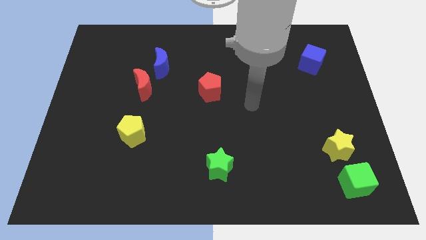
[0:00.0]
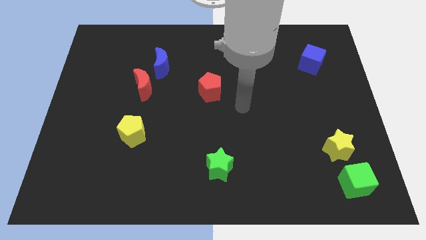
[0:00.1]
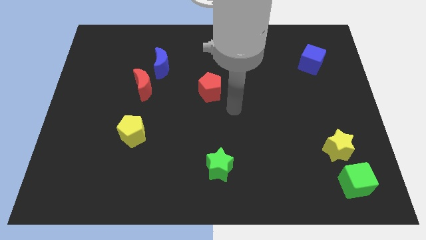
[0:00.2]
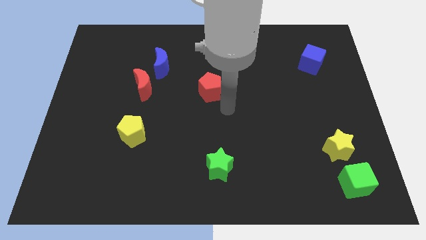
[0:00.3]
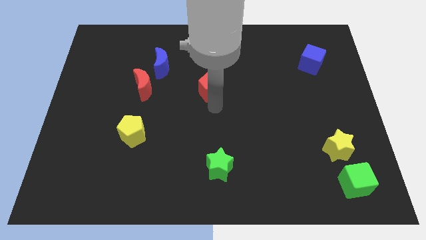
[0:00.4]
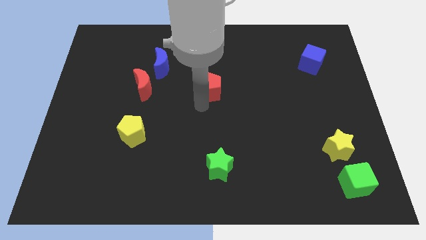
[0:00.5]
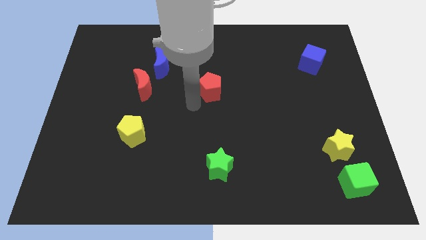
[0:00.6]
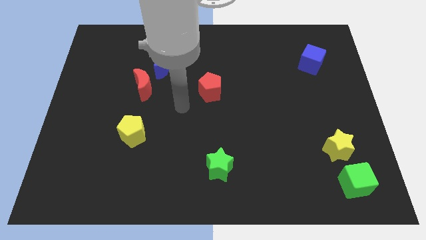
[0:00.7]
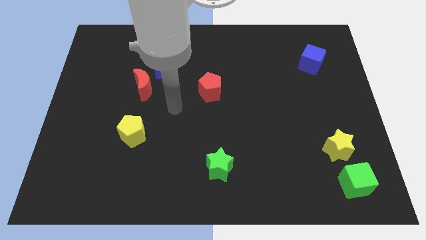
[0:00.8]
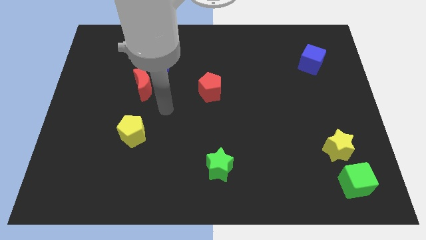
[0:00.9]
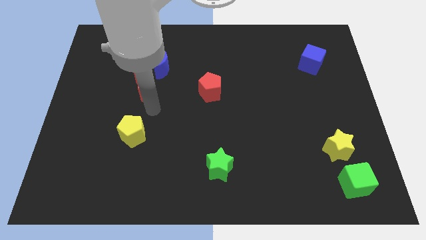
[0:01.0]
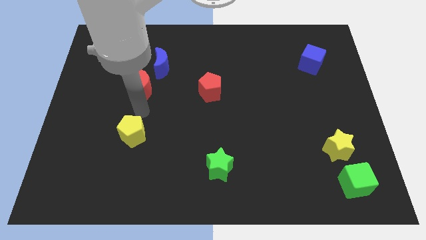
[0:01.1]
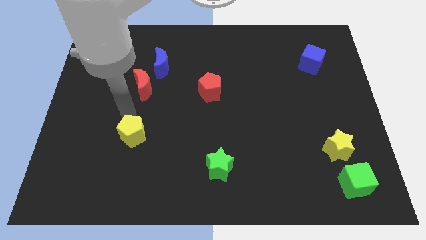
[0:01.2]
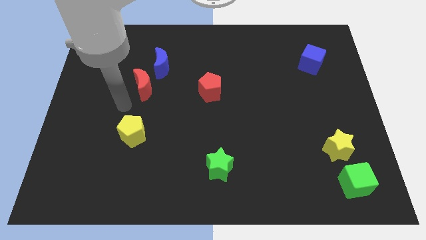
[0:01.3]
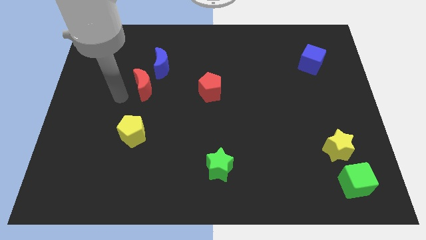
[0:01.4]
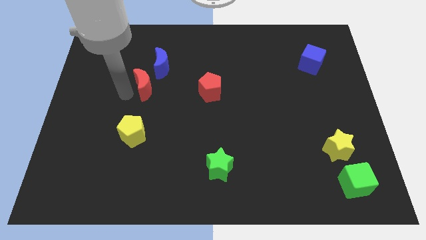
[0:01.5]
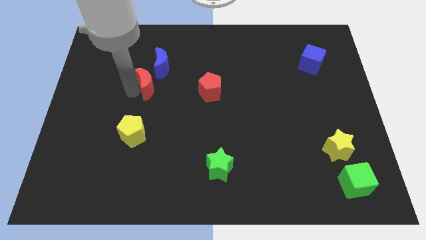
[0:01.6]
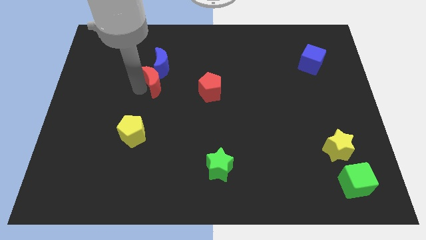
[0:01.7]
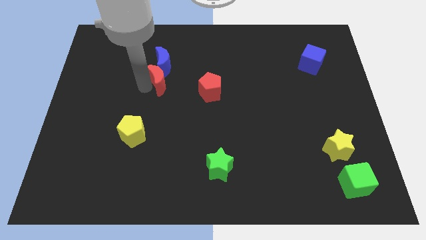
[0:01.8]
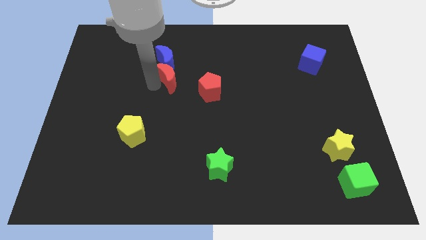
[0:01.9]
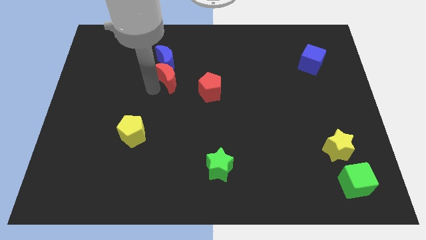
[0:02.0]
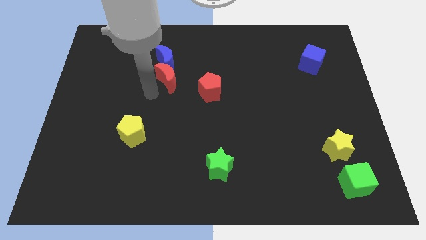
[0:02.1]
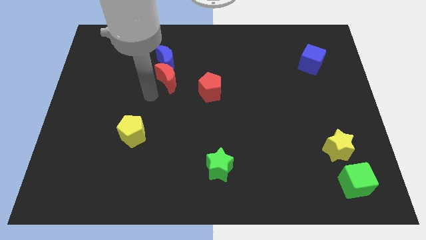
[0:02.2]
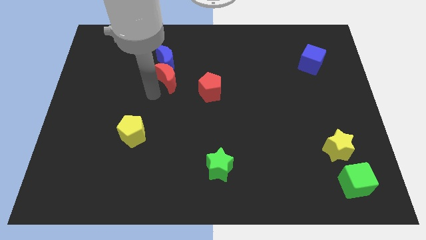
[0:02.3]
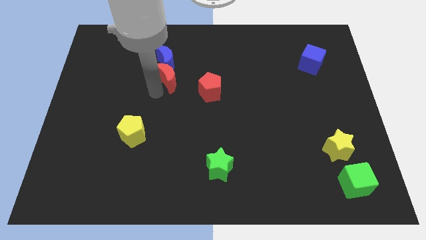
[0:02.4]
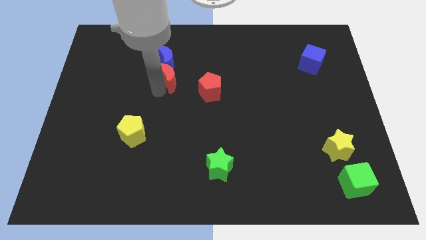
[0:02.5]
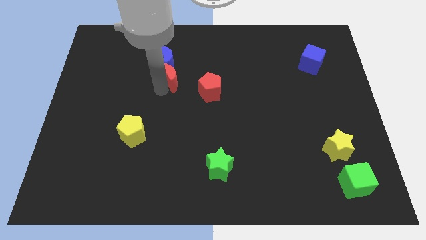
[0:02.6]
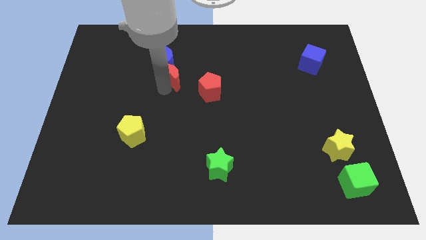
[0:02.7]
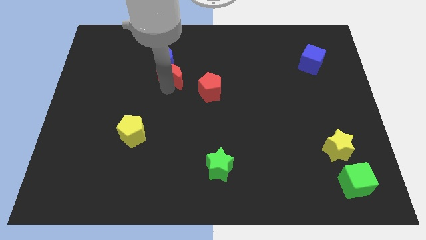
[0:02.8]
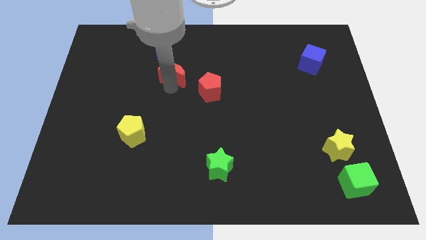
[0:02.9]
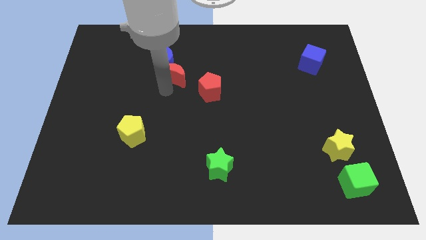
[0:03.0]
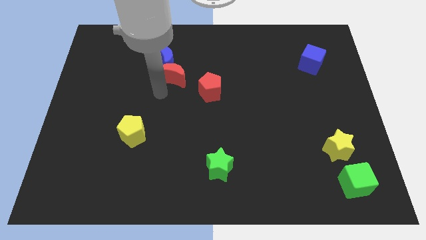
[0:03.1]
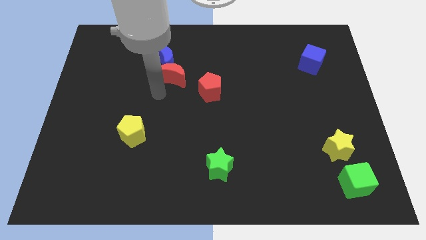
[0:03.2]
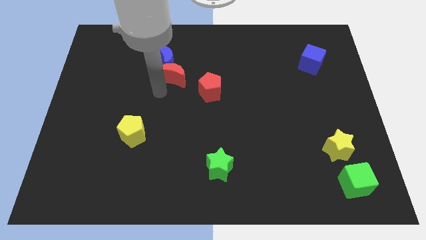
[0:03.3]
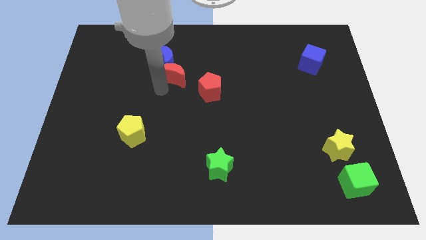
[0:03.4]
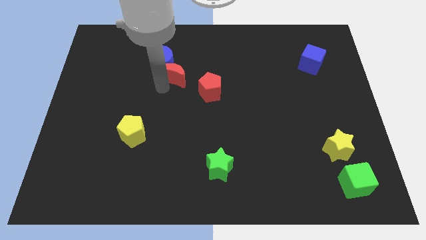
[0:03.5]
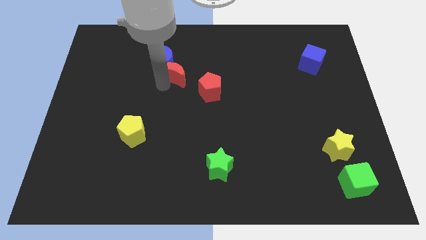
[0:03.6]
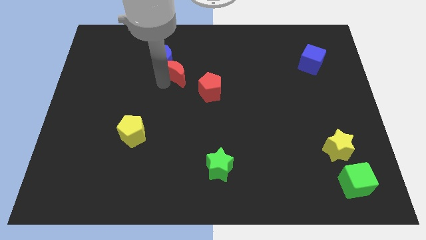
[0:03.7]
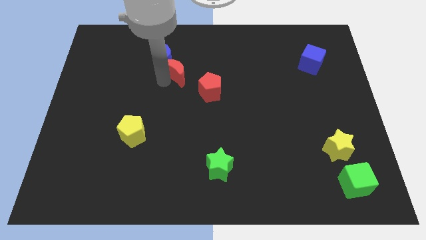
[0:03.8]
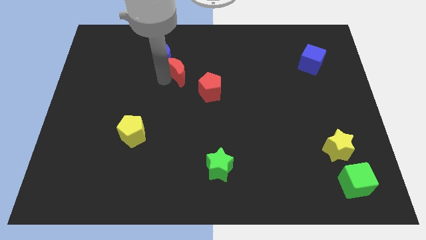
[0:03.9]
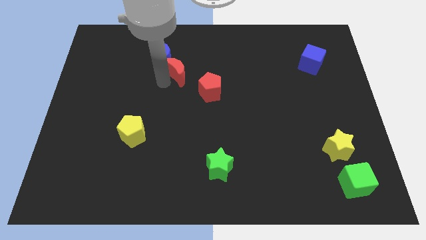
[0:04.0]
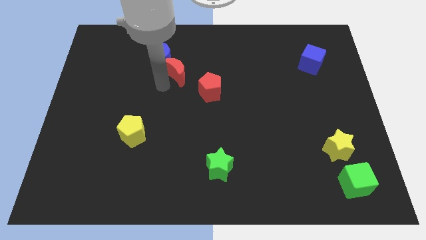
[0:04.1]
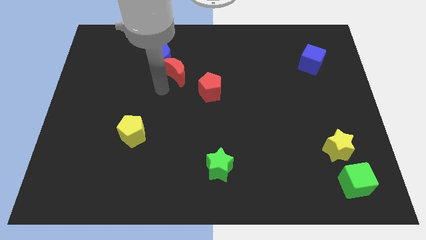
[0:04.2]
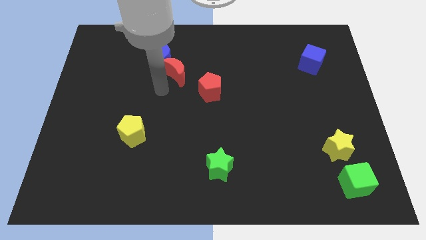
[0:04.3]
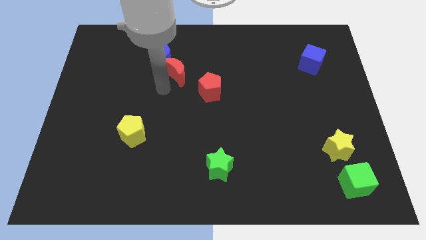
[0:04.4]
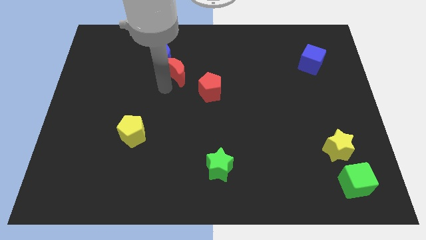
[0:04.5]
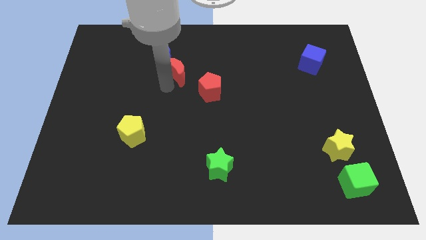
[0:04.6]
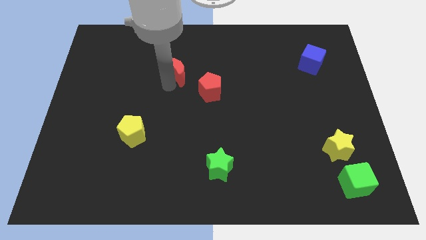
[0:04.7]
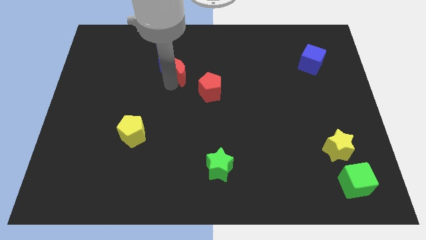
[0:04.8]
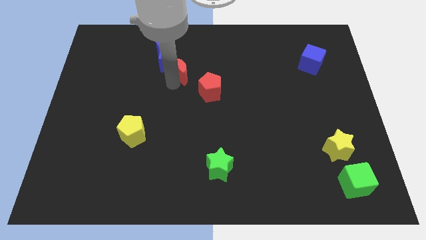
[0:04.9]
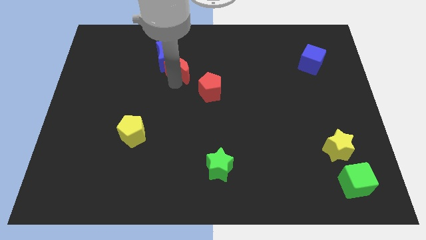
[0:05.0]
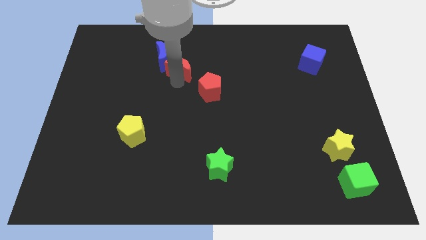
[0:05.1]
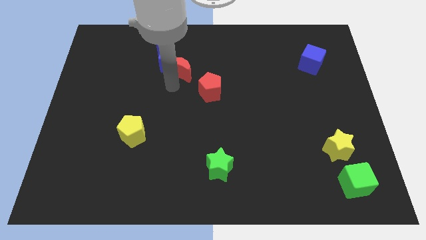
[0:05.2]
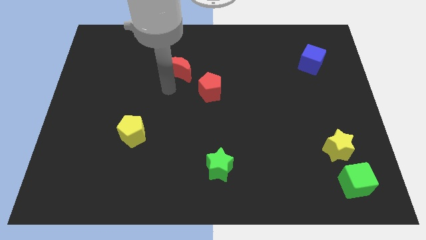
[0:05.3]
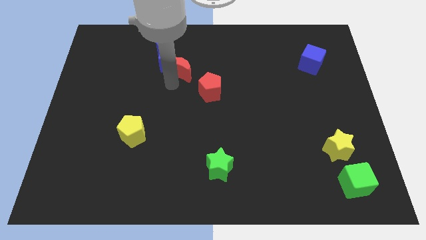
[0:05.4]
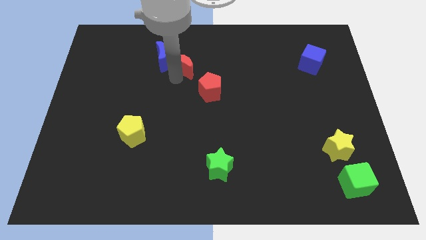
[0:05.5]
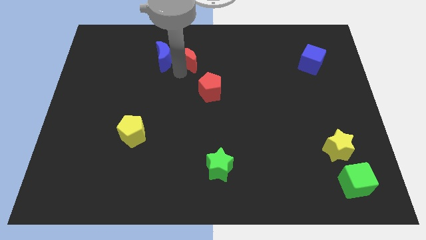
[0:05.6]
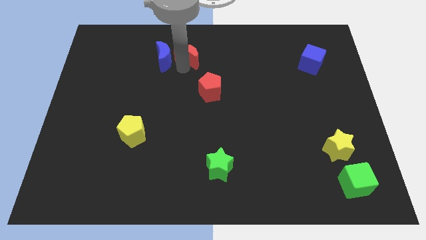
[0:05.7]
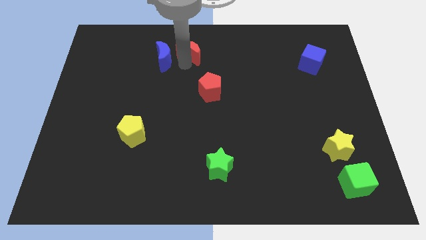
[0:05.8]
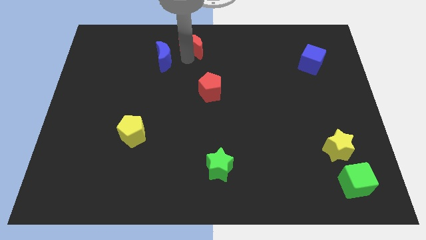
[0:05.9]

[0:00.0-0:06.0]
push the red moon to the top side

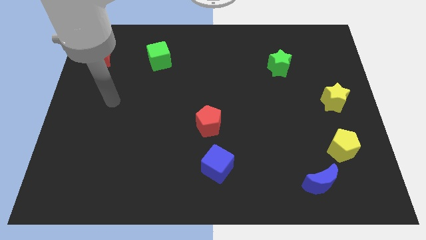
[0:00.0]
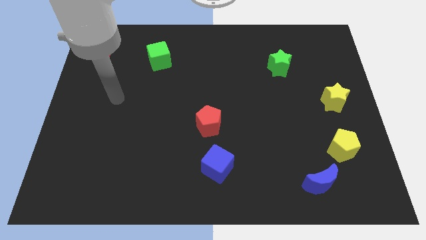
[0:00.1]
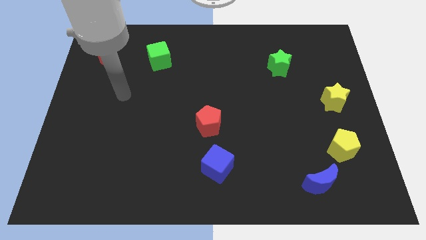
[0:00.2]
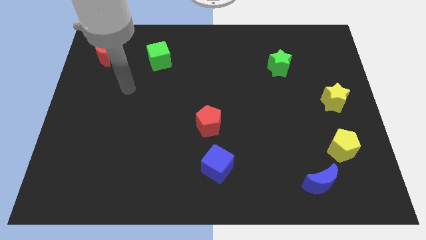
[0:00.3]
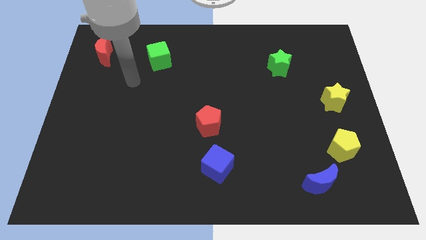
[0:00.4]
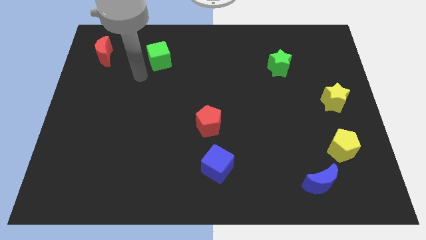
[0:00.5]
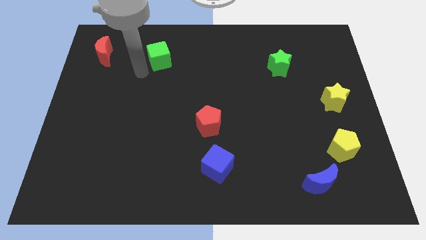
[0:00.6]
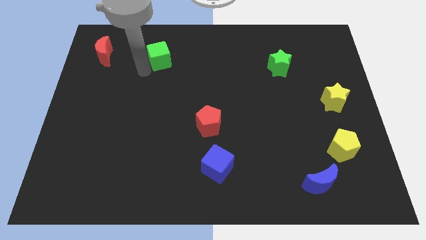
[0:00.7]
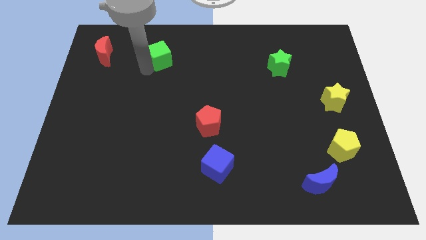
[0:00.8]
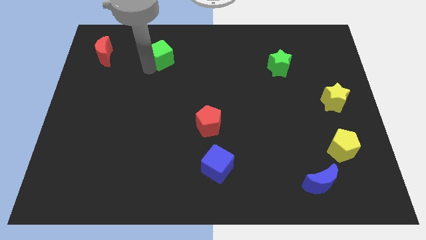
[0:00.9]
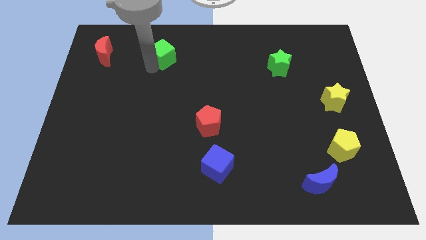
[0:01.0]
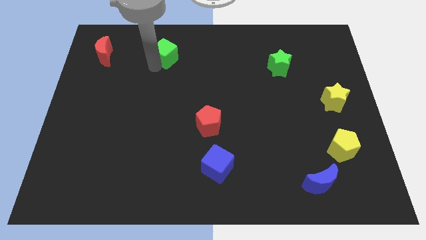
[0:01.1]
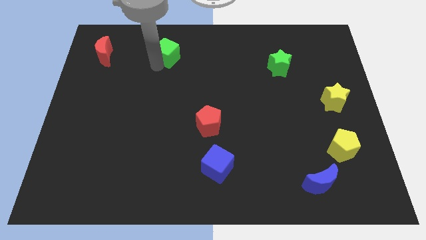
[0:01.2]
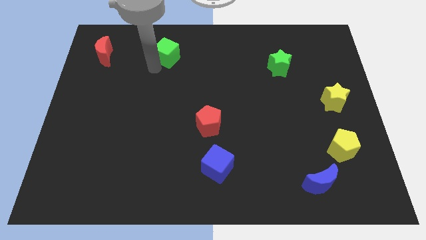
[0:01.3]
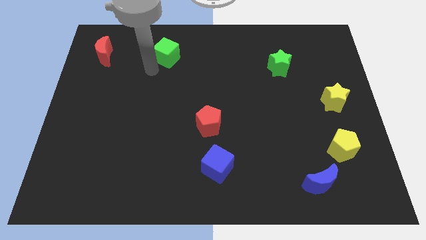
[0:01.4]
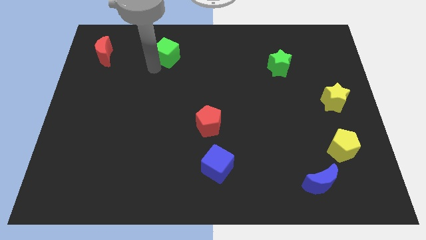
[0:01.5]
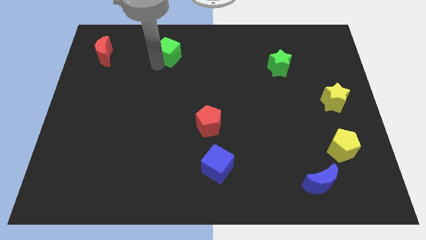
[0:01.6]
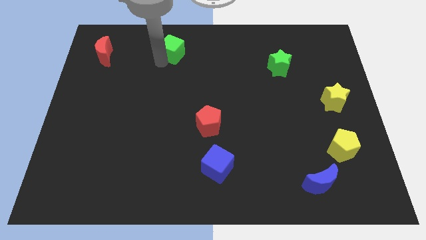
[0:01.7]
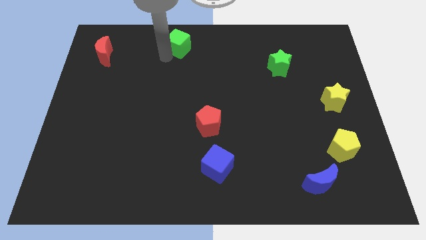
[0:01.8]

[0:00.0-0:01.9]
slide the green cube to the towards your base

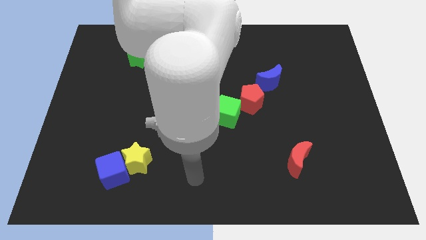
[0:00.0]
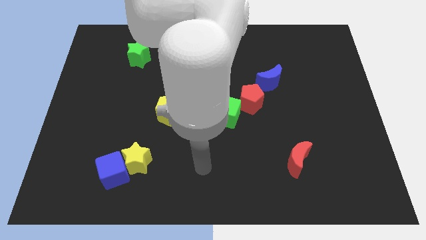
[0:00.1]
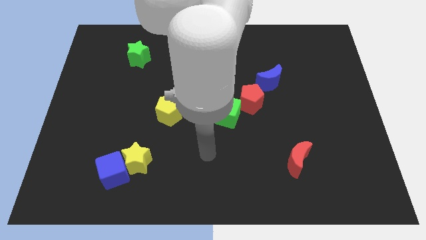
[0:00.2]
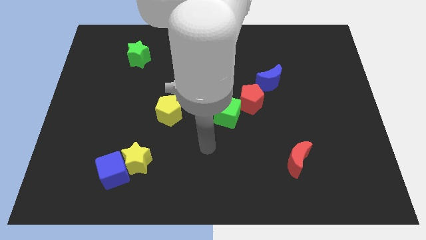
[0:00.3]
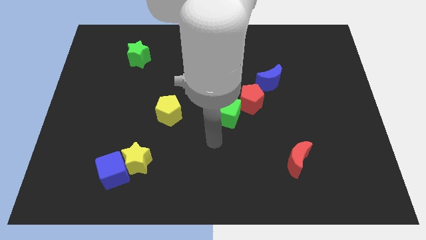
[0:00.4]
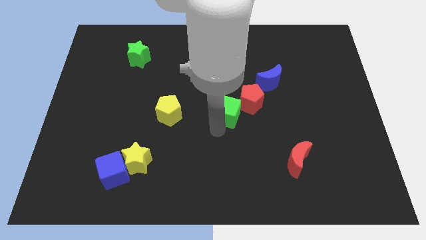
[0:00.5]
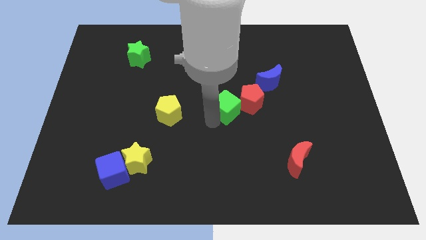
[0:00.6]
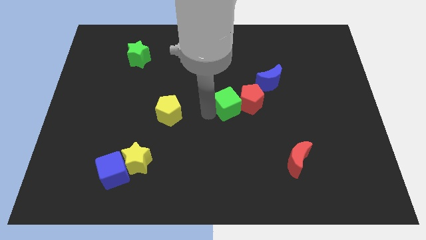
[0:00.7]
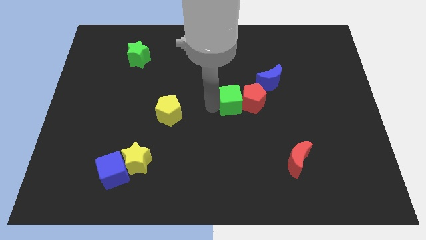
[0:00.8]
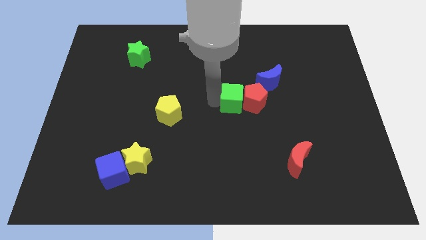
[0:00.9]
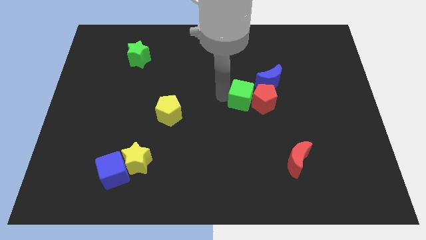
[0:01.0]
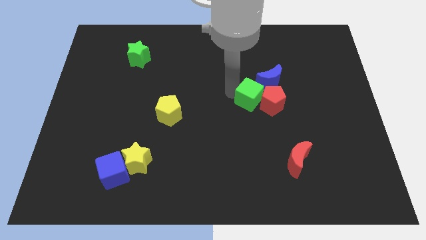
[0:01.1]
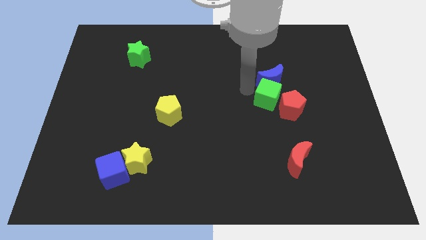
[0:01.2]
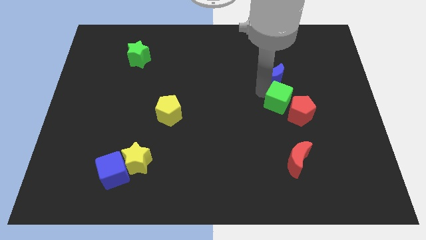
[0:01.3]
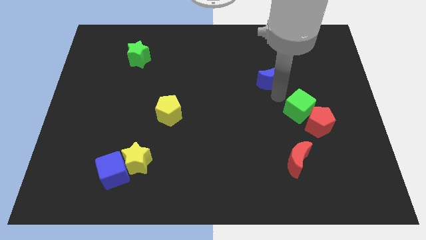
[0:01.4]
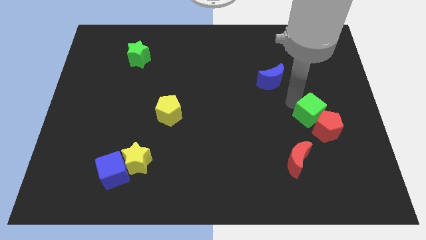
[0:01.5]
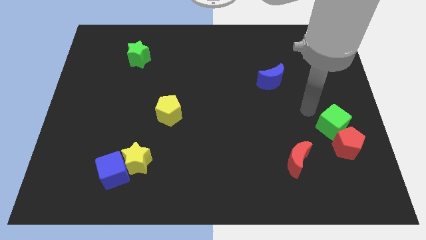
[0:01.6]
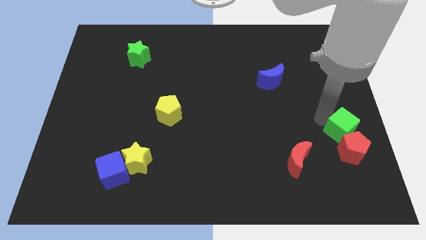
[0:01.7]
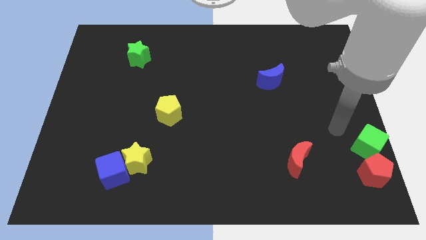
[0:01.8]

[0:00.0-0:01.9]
push the red pentagon to the bottom right corner
